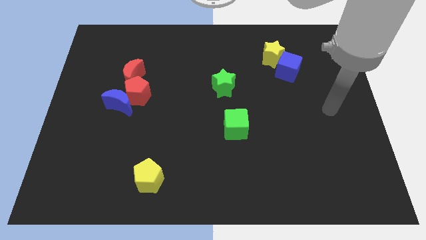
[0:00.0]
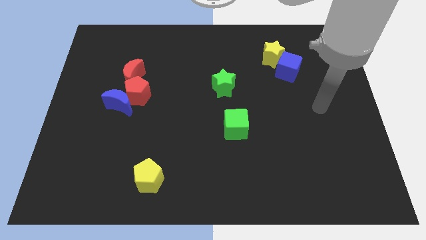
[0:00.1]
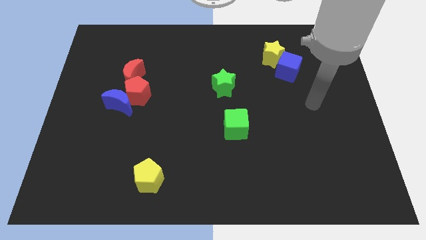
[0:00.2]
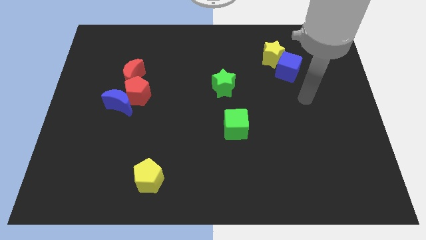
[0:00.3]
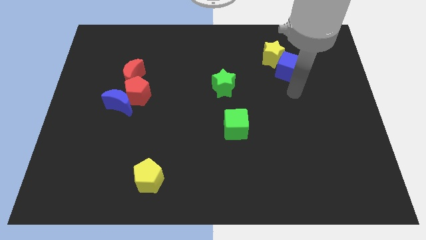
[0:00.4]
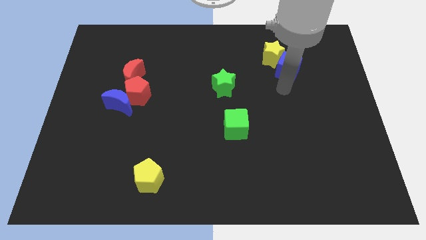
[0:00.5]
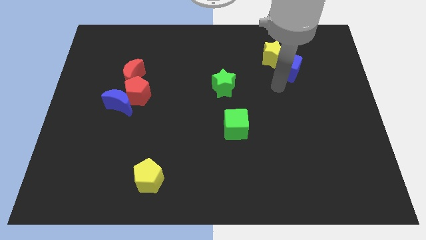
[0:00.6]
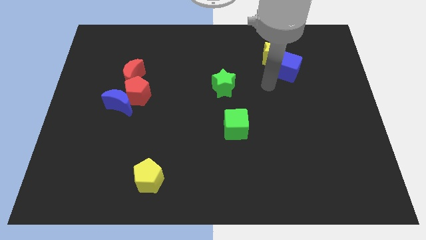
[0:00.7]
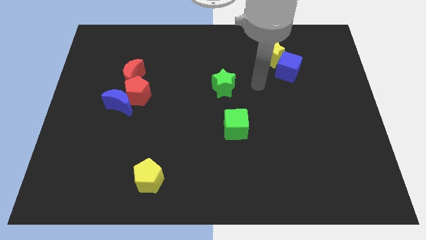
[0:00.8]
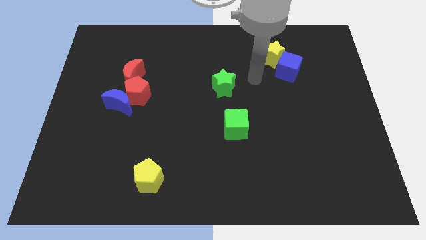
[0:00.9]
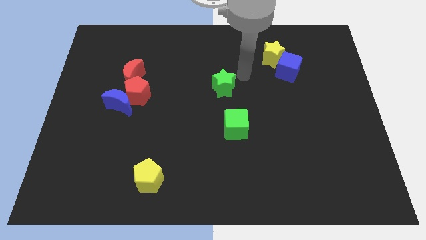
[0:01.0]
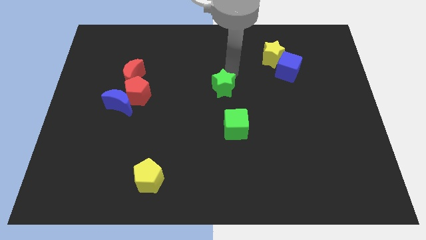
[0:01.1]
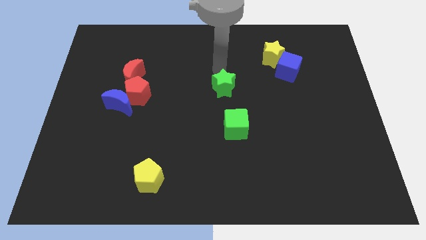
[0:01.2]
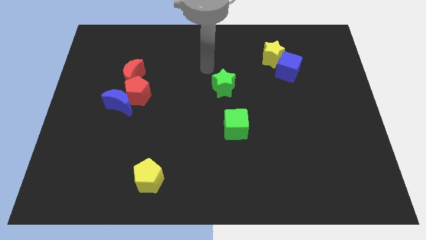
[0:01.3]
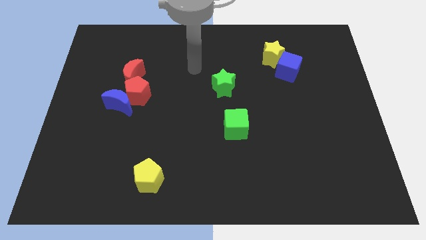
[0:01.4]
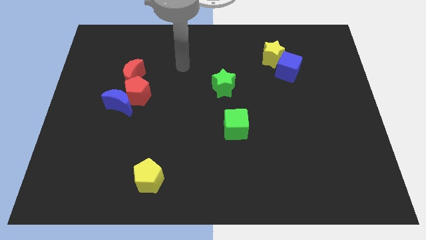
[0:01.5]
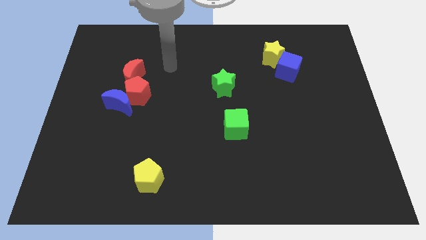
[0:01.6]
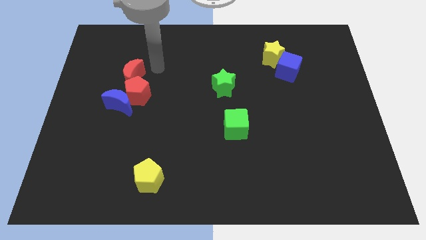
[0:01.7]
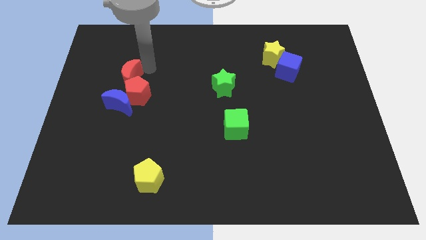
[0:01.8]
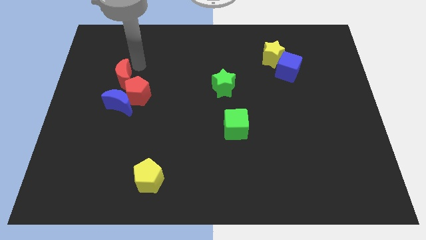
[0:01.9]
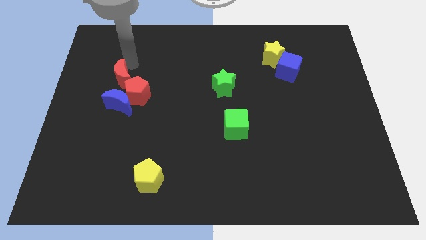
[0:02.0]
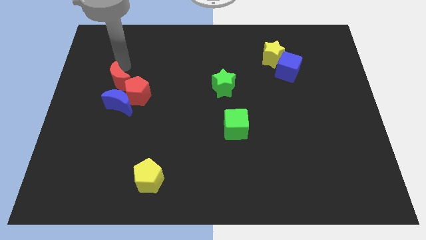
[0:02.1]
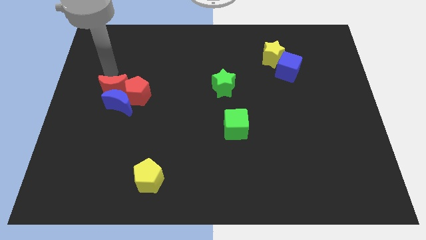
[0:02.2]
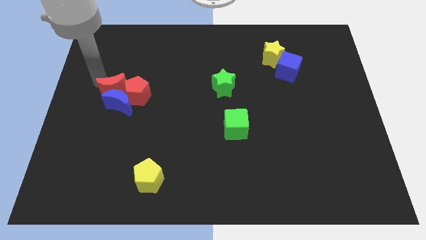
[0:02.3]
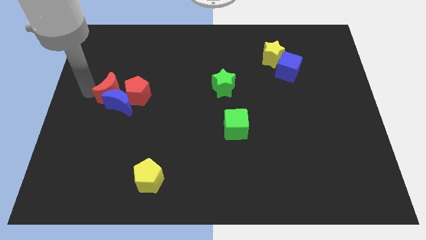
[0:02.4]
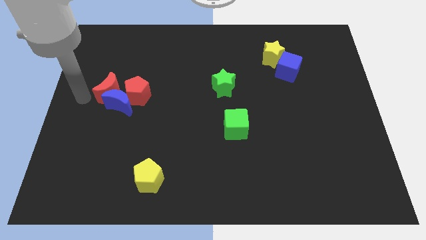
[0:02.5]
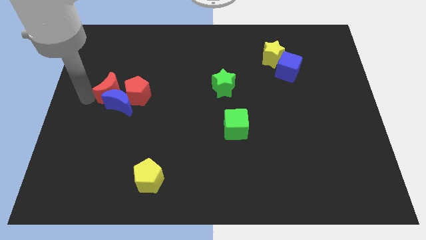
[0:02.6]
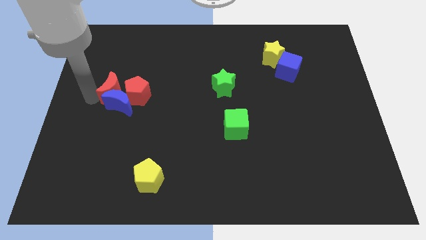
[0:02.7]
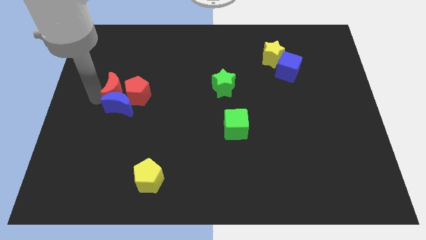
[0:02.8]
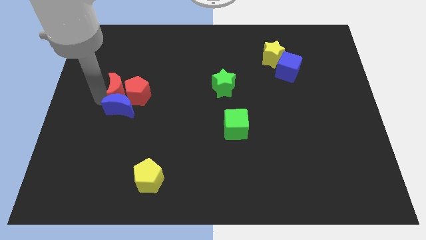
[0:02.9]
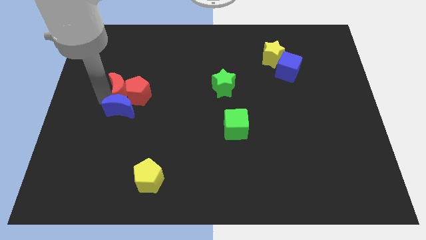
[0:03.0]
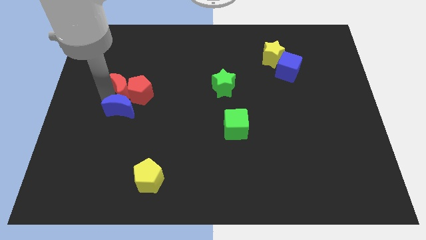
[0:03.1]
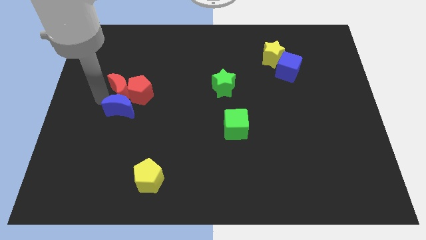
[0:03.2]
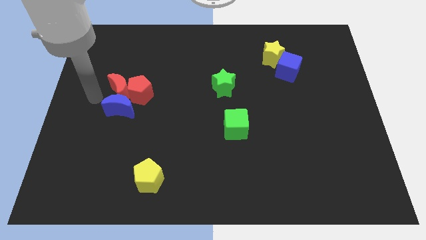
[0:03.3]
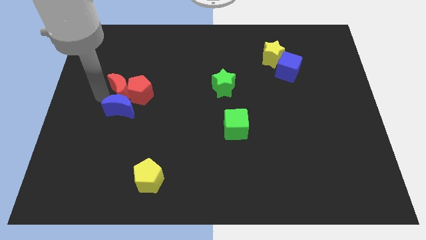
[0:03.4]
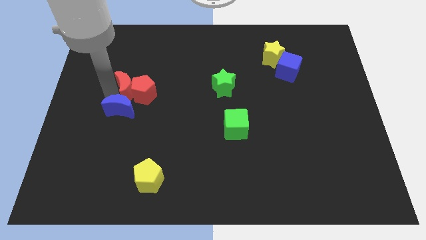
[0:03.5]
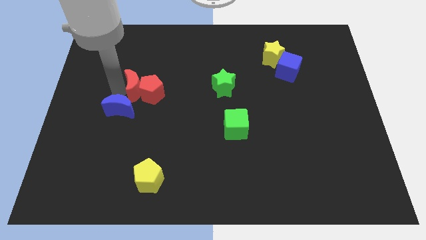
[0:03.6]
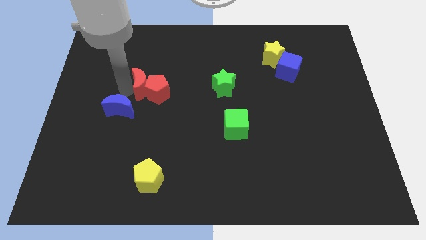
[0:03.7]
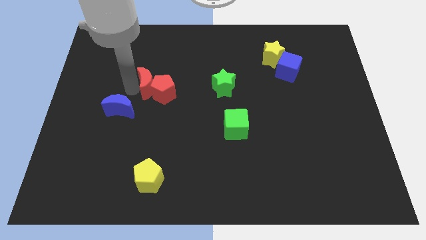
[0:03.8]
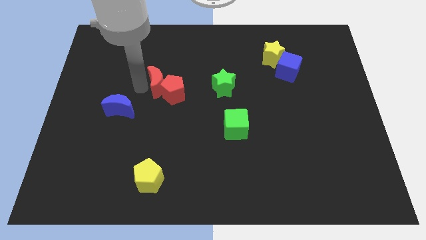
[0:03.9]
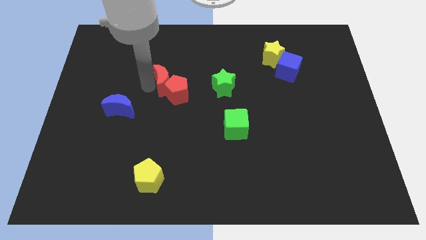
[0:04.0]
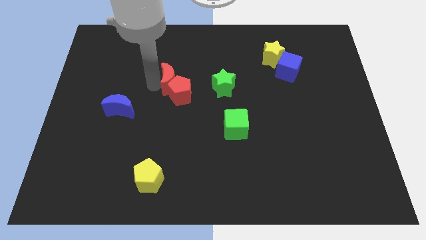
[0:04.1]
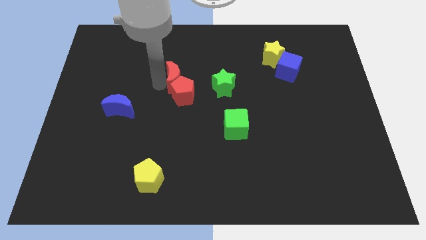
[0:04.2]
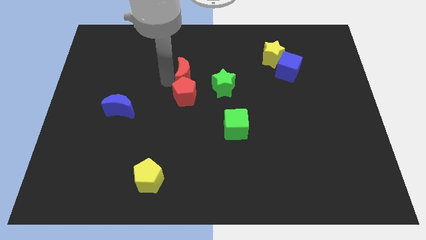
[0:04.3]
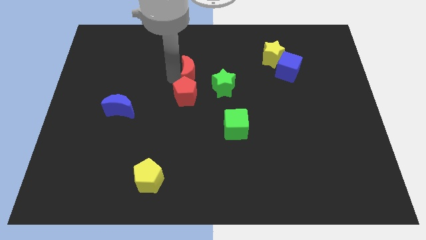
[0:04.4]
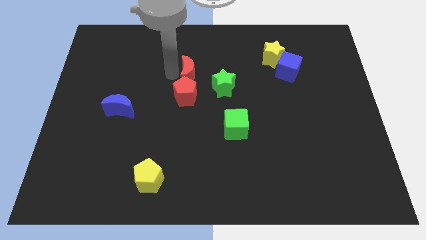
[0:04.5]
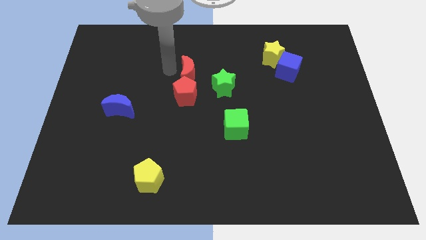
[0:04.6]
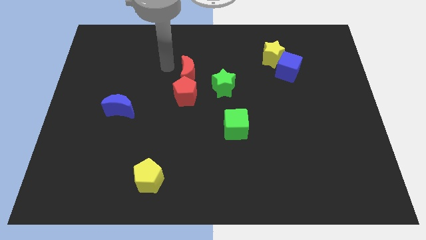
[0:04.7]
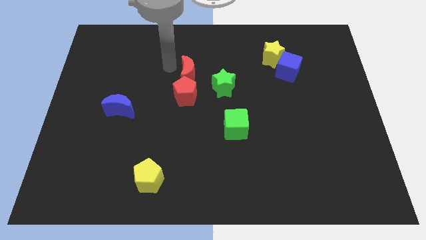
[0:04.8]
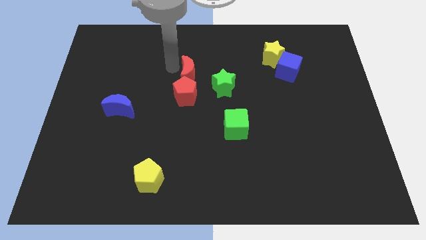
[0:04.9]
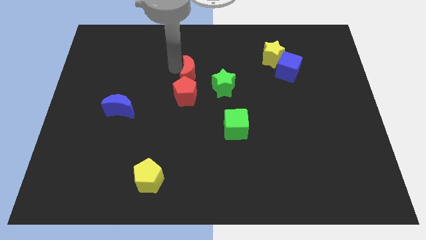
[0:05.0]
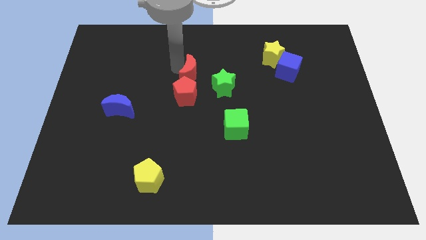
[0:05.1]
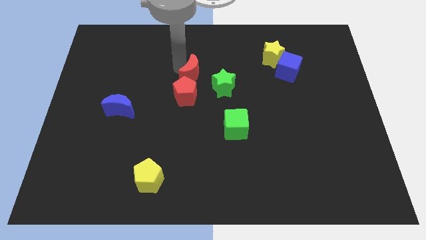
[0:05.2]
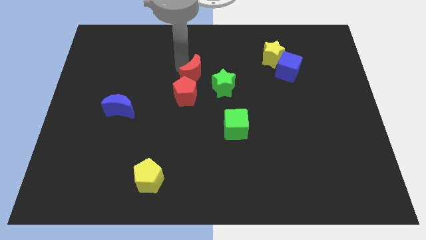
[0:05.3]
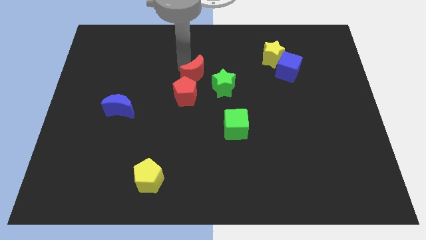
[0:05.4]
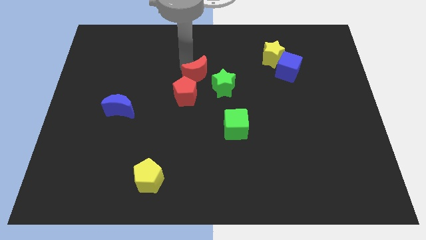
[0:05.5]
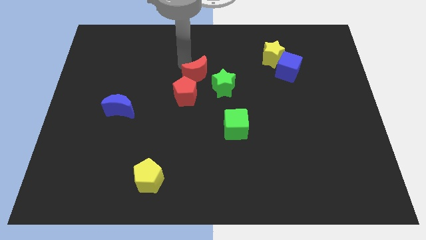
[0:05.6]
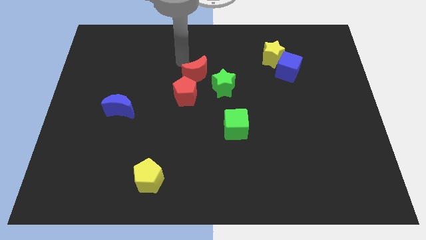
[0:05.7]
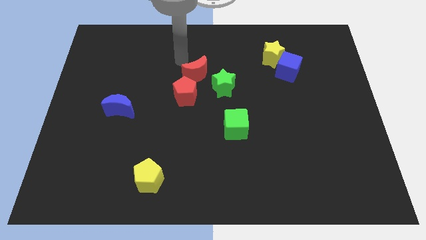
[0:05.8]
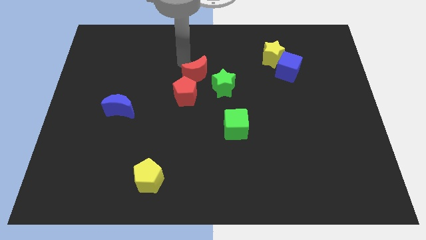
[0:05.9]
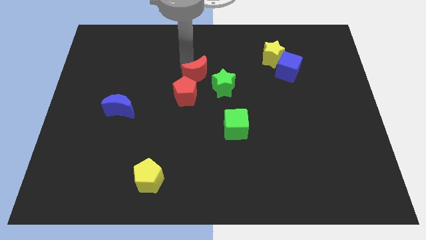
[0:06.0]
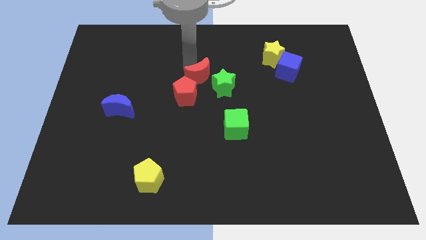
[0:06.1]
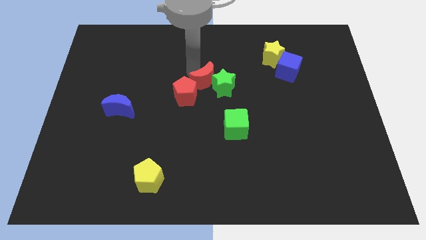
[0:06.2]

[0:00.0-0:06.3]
put the red moon to the green star

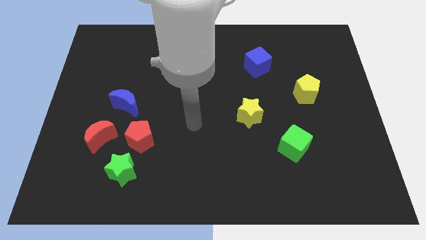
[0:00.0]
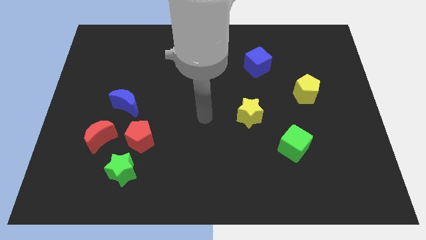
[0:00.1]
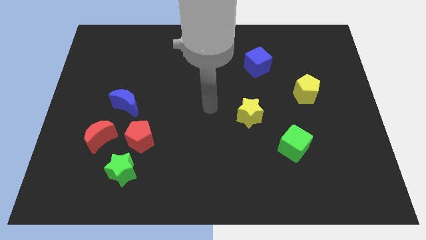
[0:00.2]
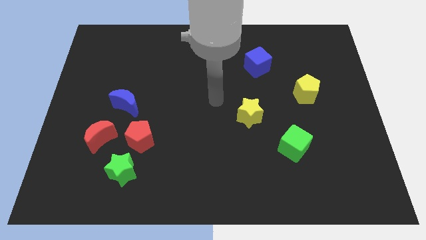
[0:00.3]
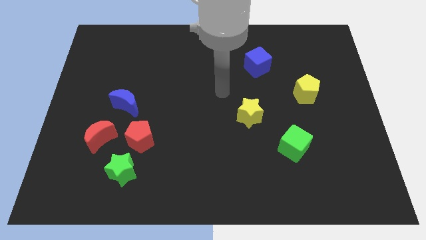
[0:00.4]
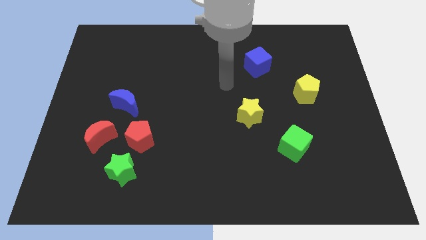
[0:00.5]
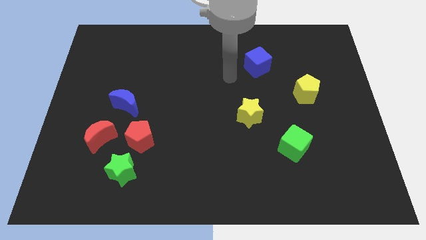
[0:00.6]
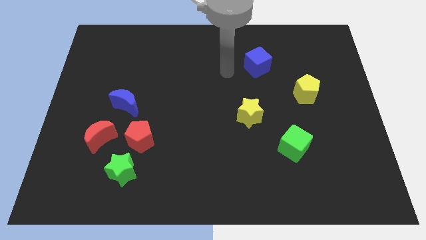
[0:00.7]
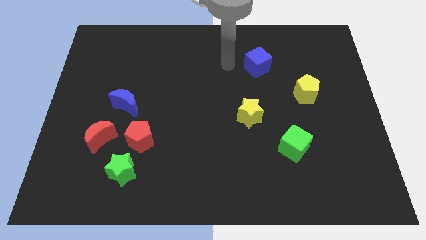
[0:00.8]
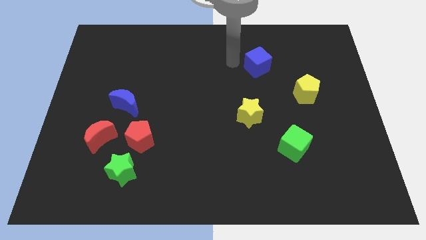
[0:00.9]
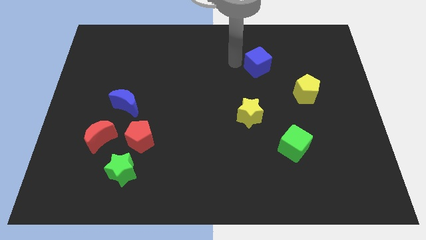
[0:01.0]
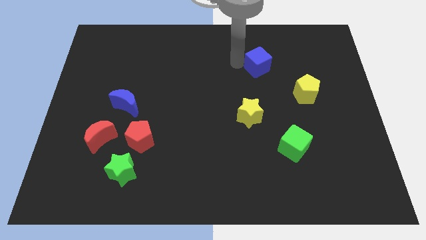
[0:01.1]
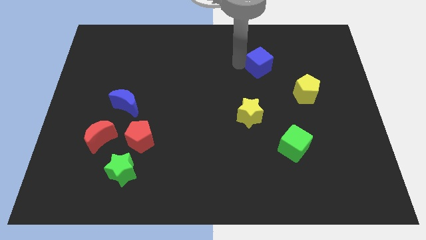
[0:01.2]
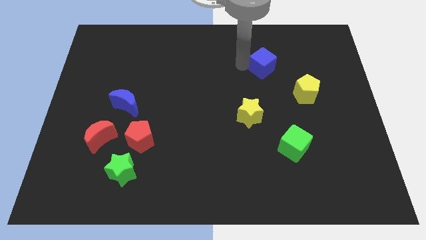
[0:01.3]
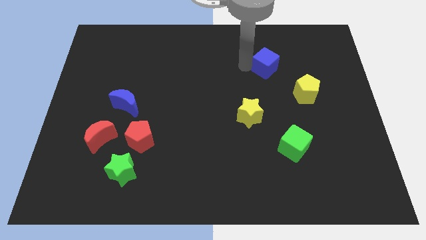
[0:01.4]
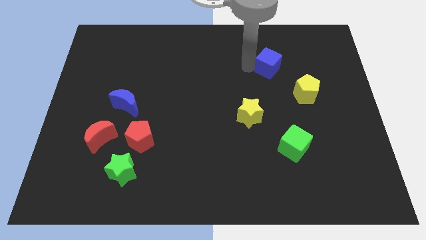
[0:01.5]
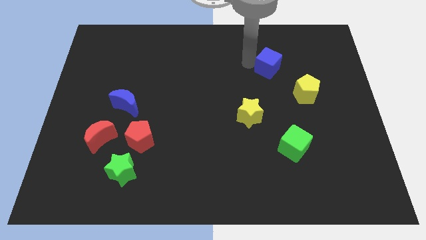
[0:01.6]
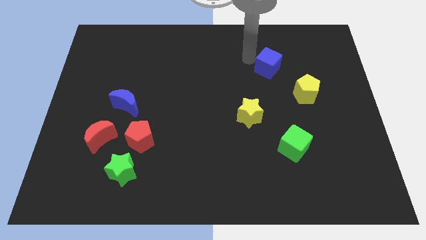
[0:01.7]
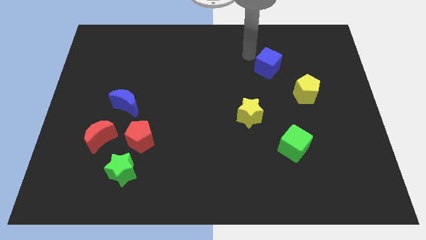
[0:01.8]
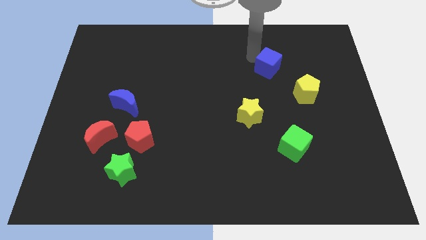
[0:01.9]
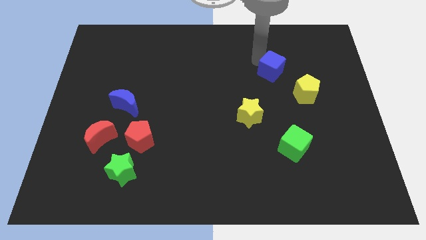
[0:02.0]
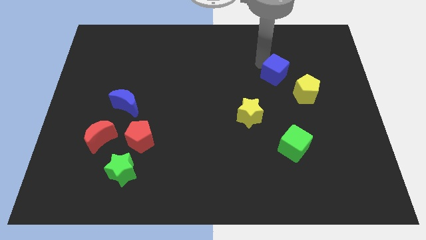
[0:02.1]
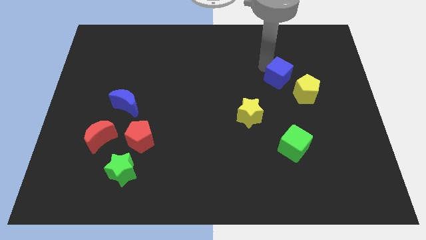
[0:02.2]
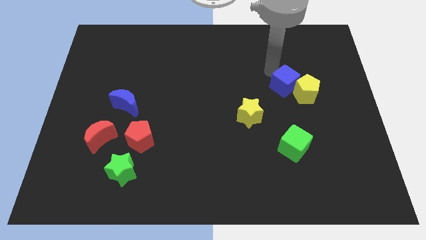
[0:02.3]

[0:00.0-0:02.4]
slide the blue cube close to the yellow pentagon
